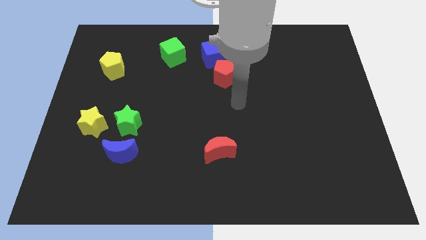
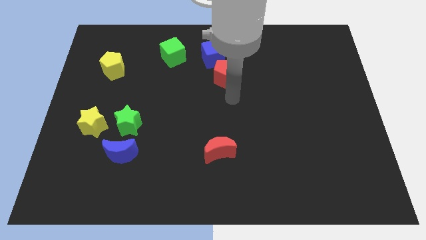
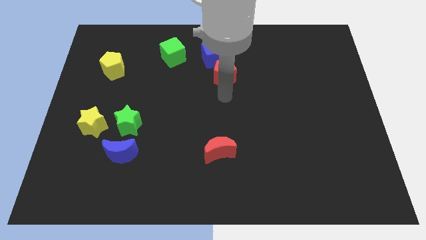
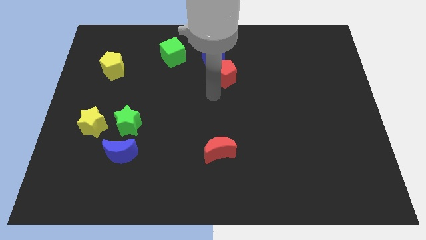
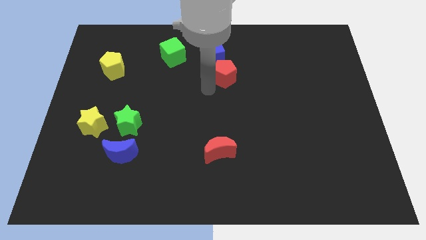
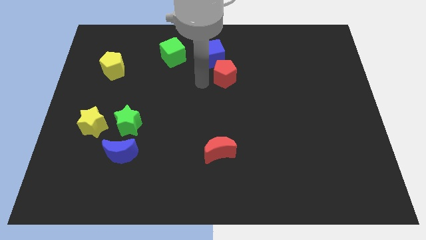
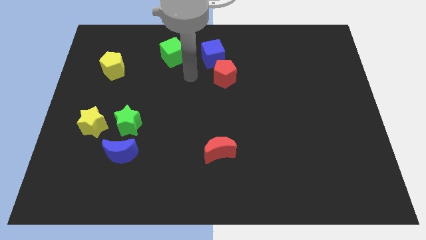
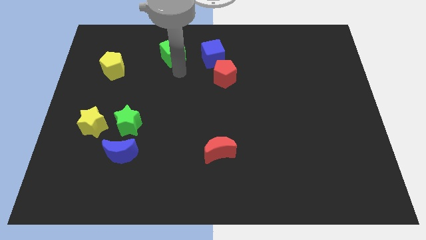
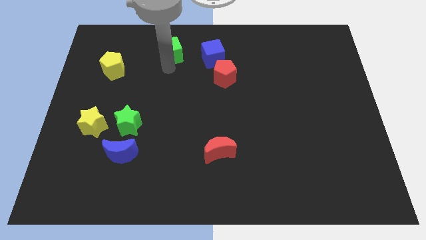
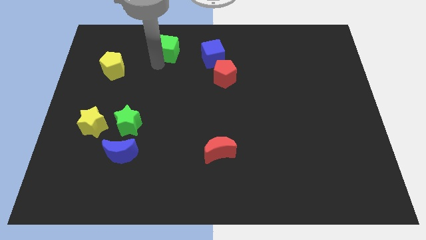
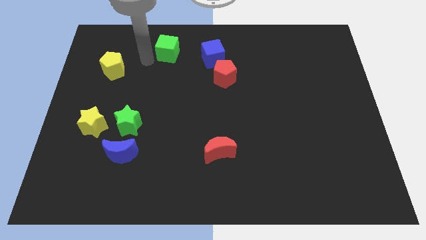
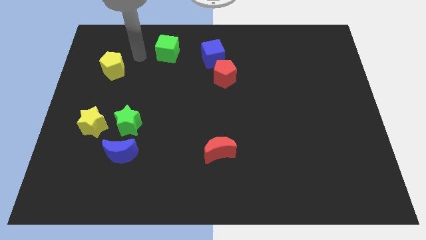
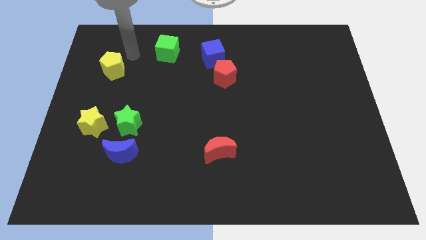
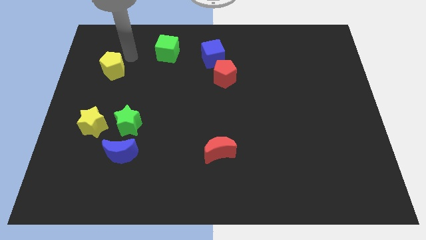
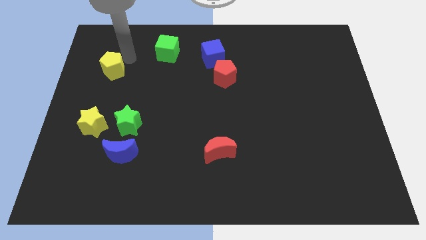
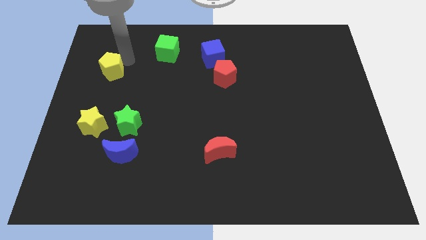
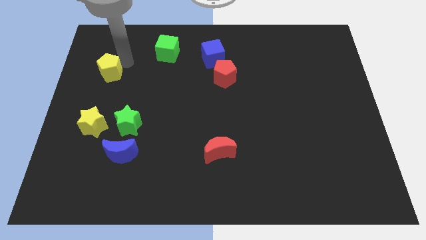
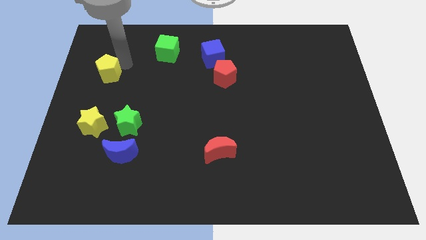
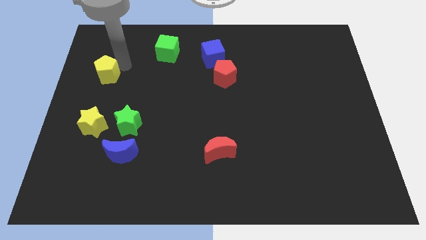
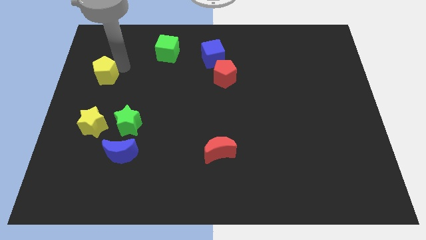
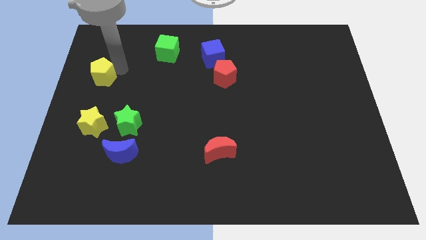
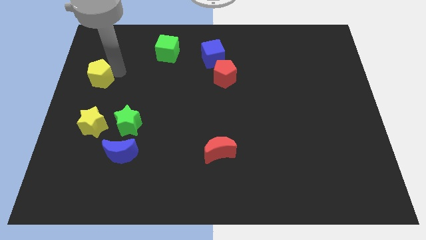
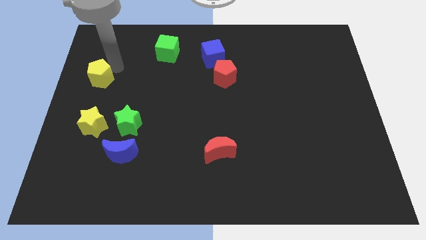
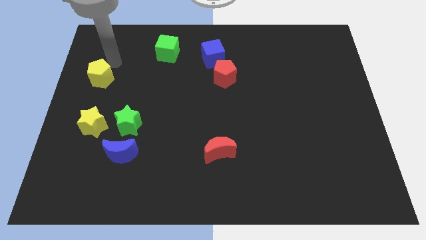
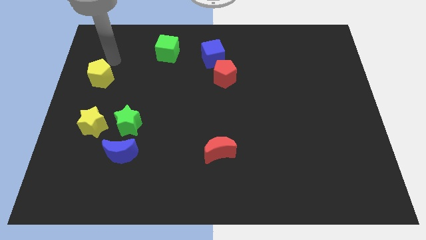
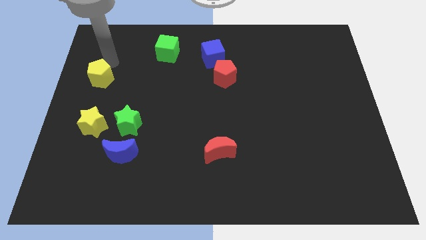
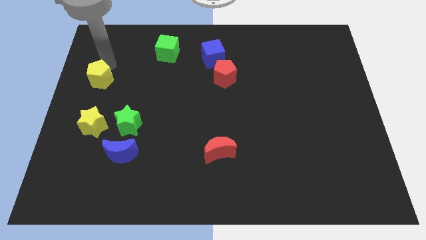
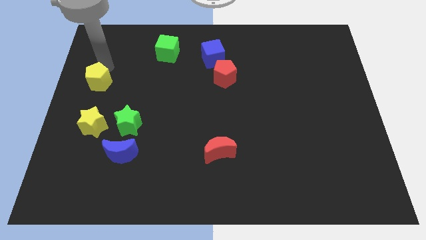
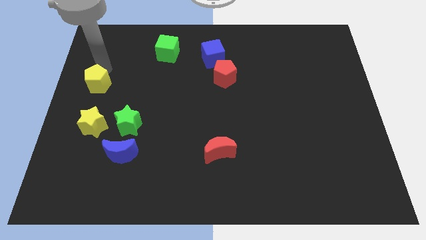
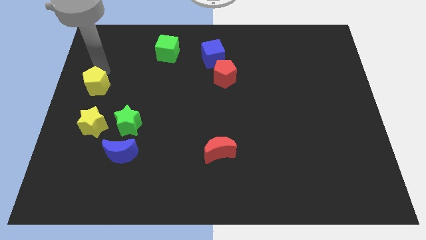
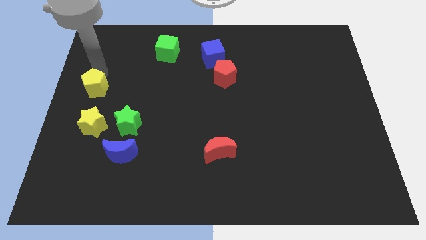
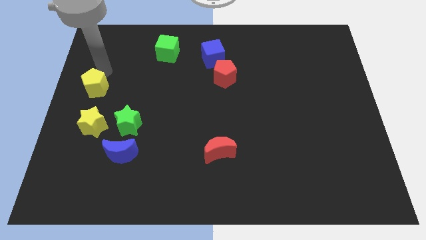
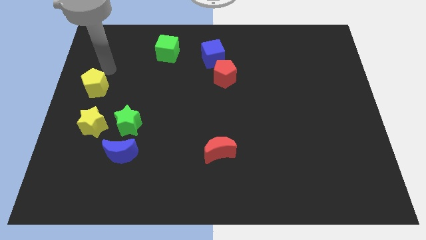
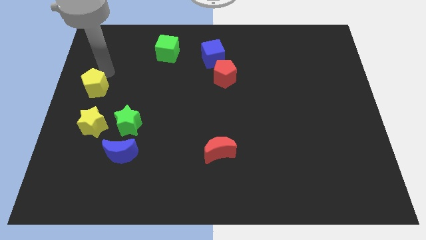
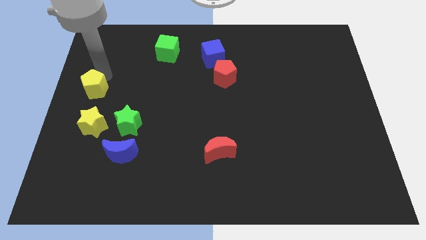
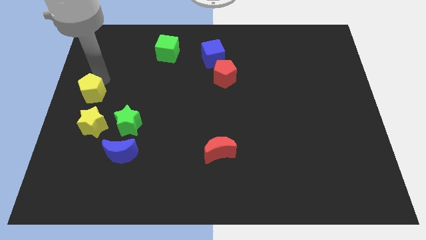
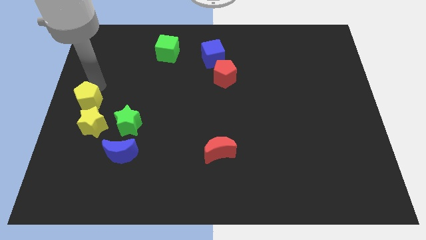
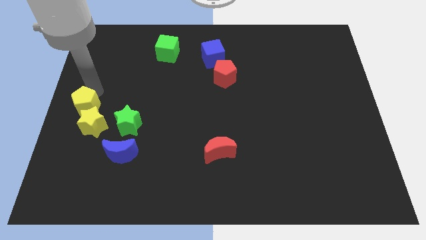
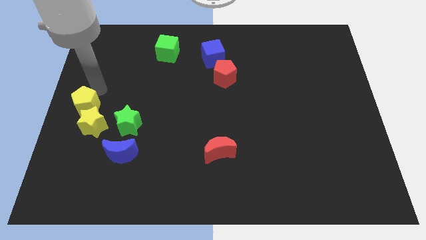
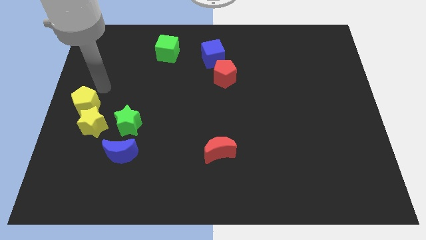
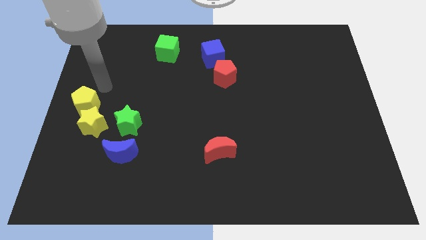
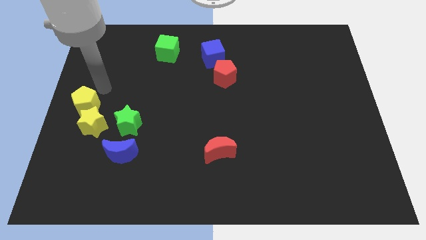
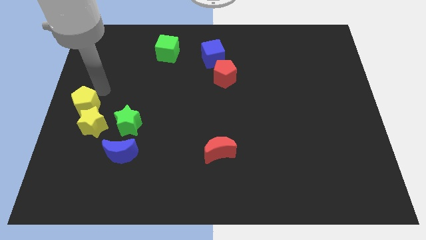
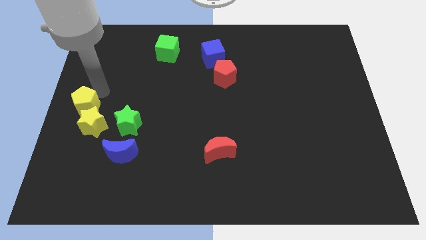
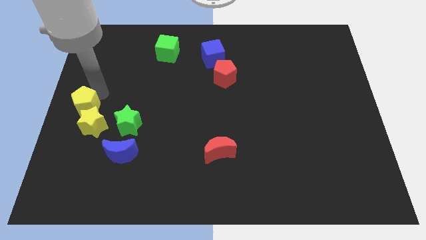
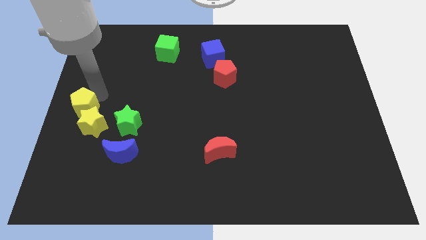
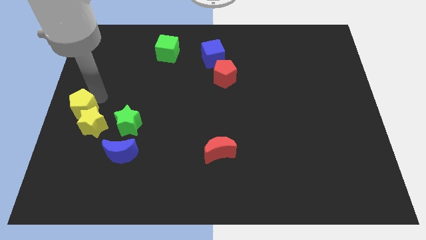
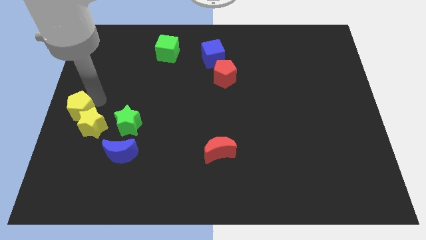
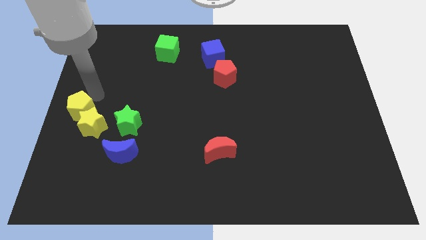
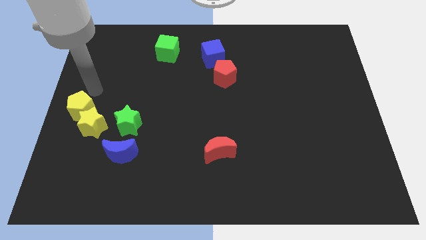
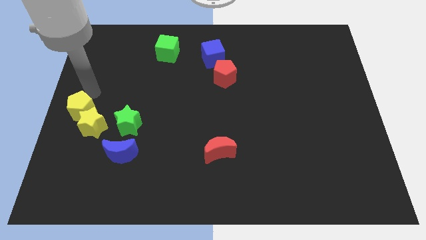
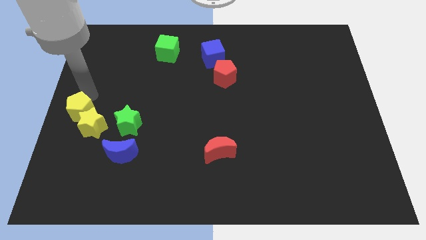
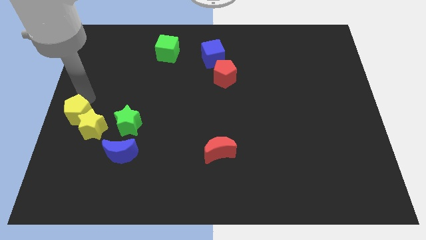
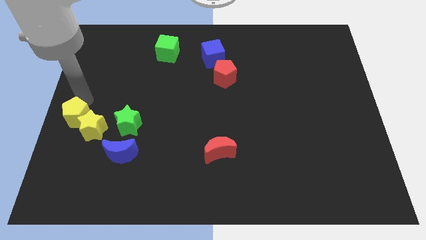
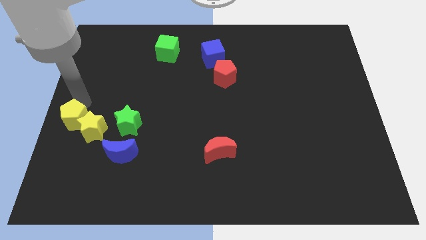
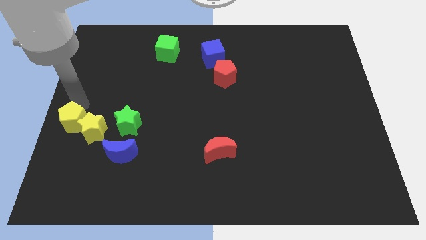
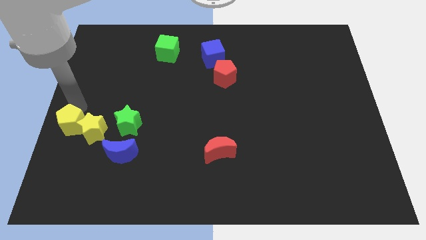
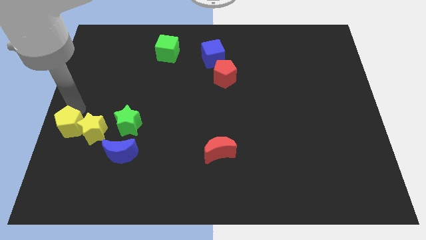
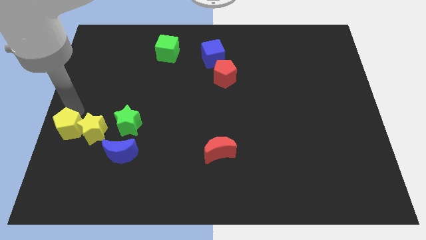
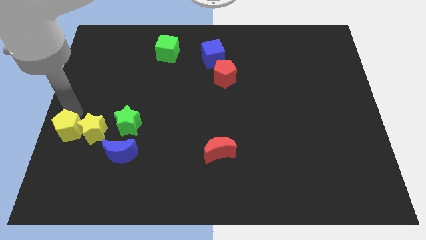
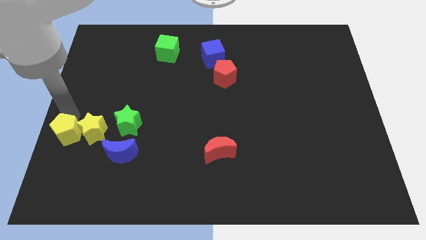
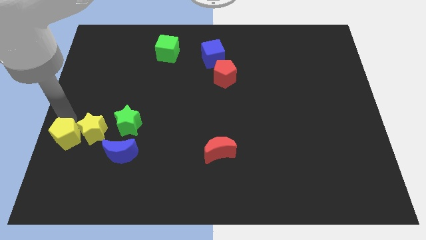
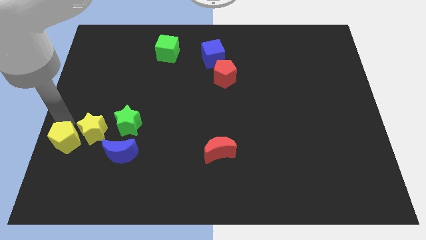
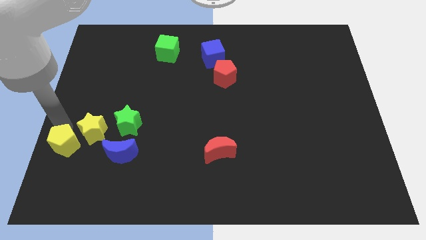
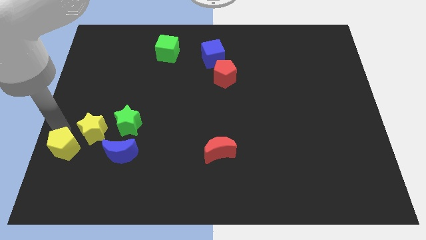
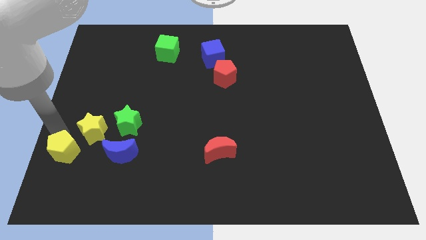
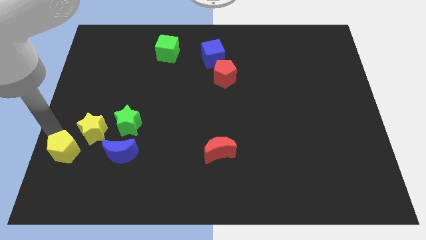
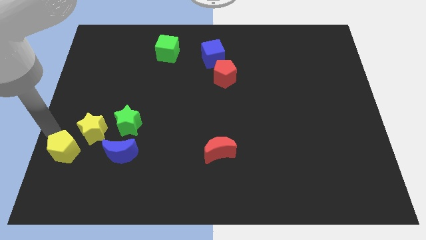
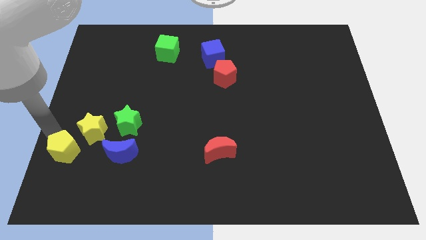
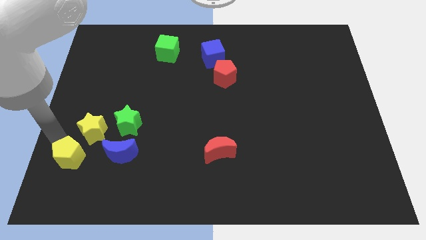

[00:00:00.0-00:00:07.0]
put the yellow pentagon to the bottom of the yellow star

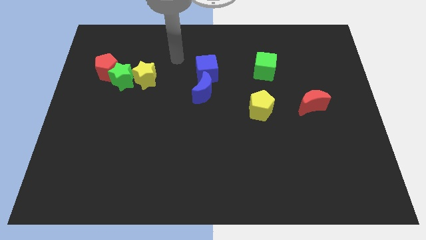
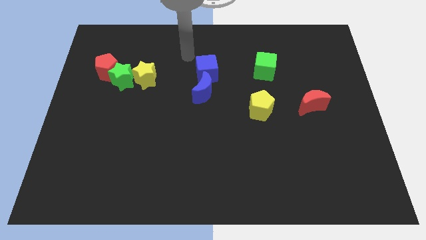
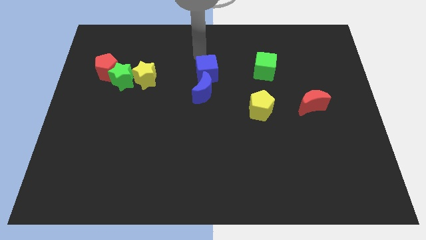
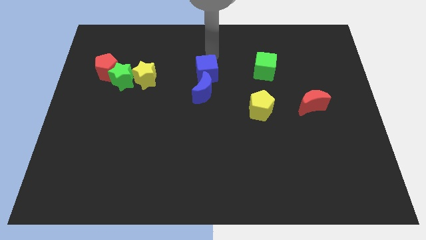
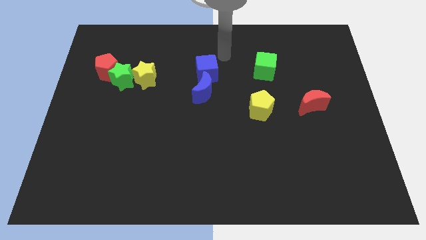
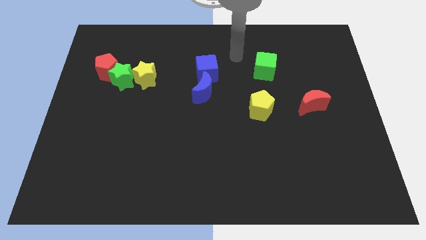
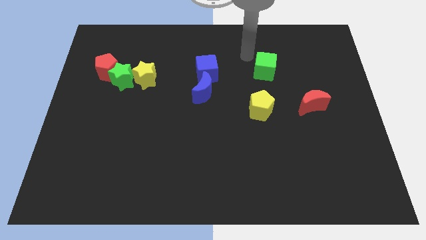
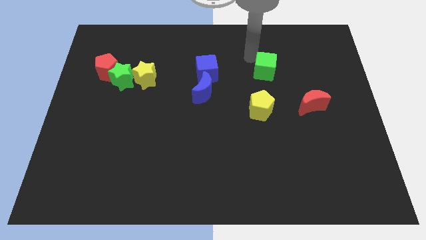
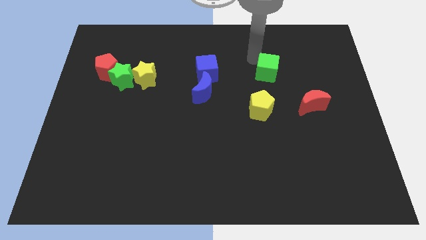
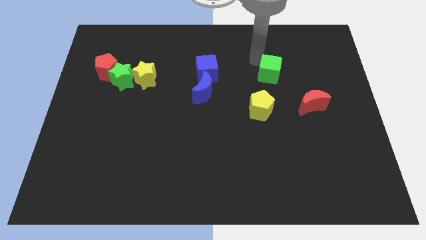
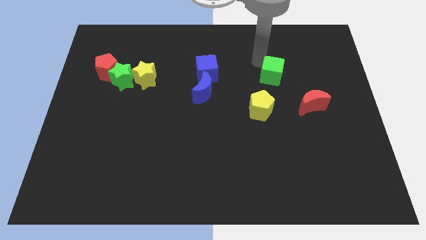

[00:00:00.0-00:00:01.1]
move the green cube diagonally up and to the left of the red moon
